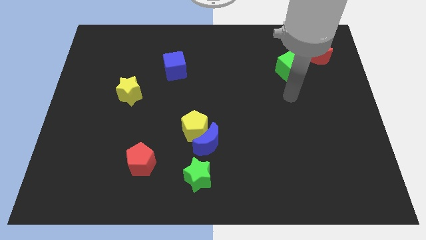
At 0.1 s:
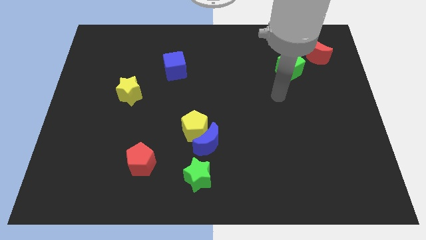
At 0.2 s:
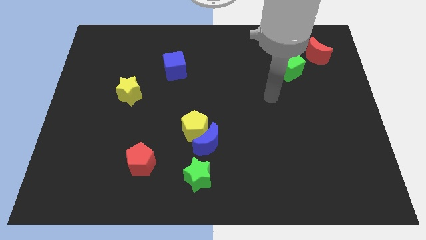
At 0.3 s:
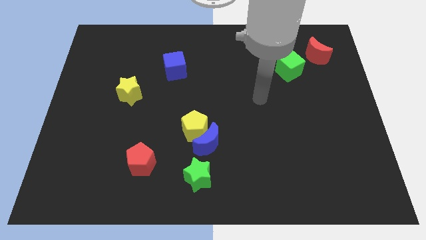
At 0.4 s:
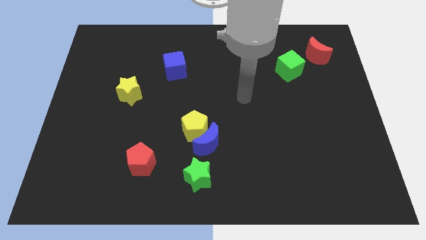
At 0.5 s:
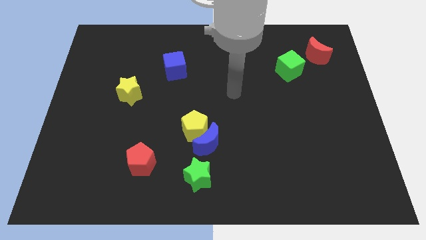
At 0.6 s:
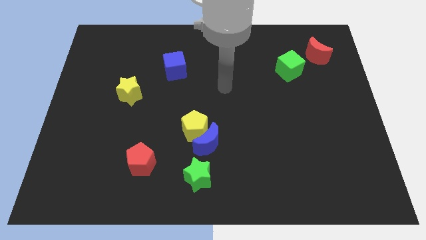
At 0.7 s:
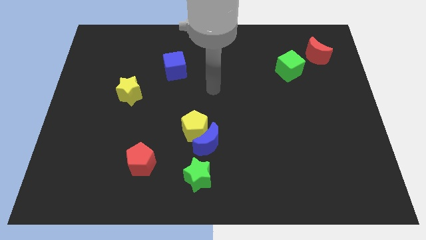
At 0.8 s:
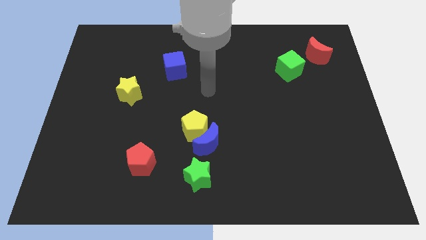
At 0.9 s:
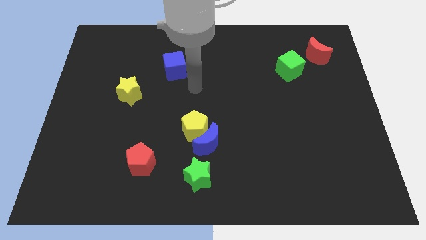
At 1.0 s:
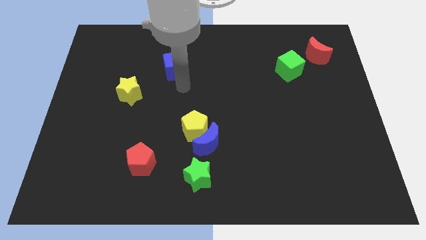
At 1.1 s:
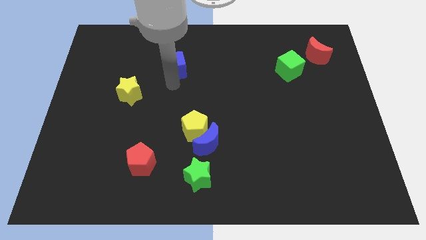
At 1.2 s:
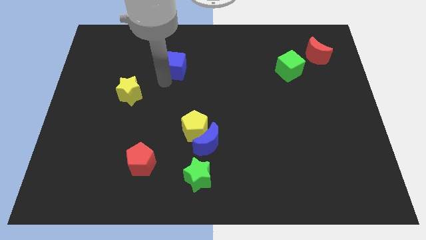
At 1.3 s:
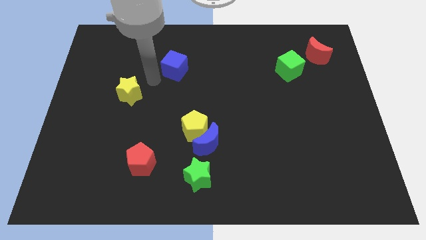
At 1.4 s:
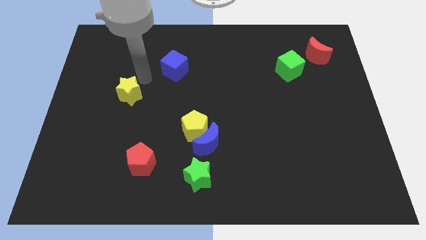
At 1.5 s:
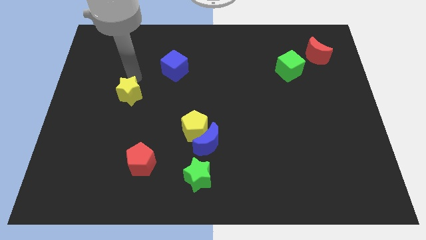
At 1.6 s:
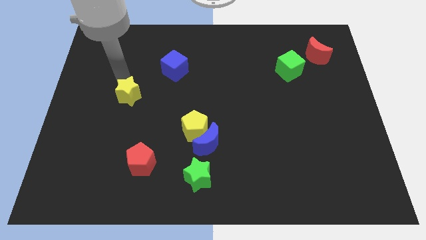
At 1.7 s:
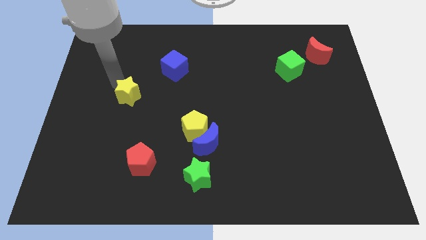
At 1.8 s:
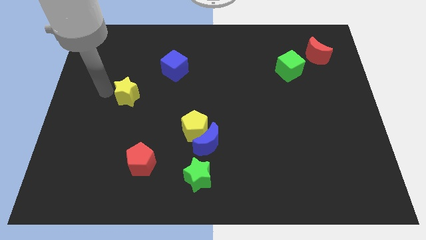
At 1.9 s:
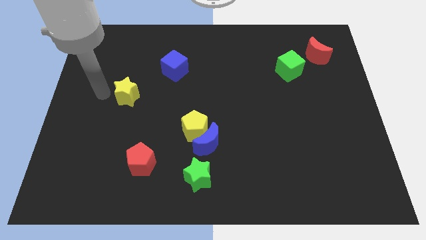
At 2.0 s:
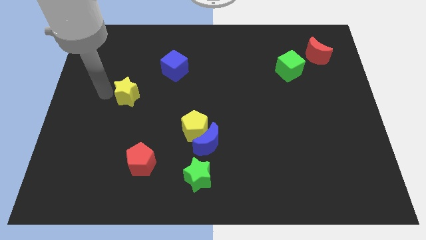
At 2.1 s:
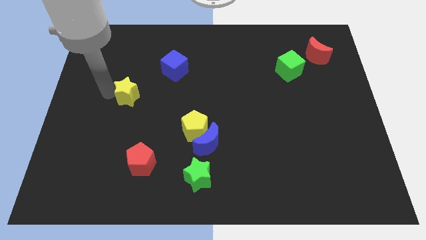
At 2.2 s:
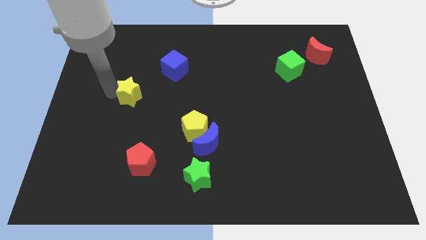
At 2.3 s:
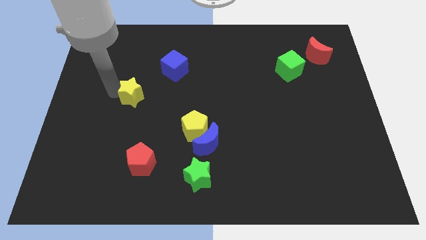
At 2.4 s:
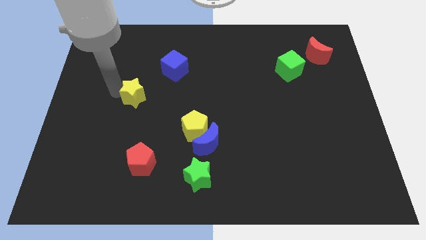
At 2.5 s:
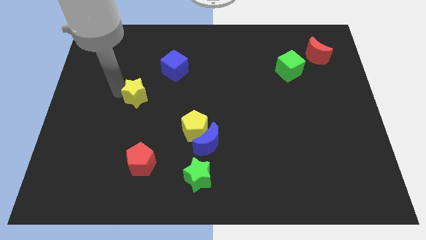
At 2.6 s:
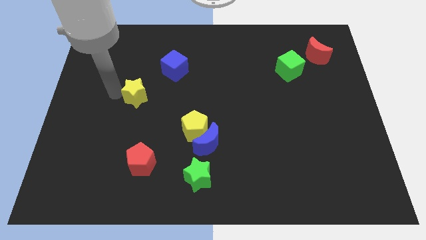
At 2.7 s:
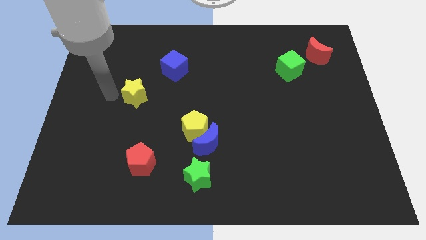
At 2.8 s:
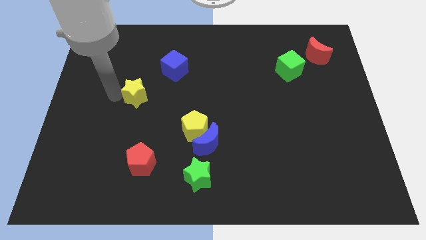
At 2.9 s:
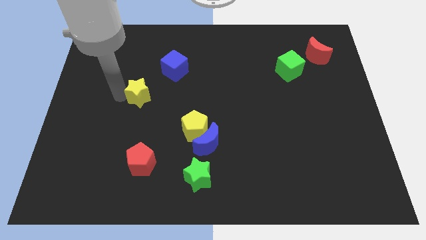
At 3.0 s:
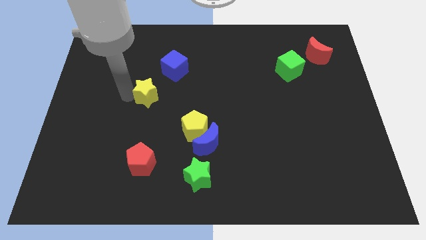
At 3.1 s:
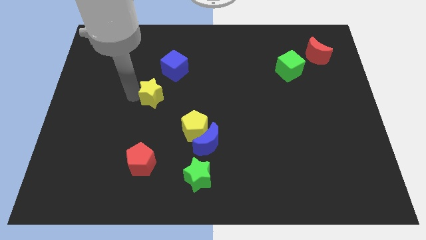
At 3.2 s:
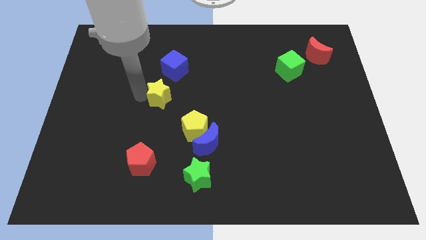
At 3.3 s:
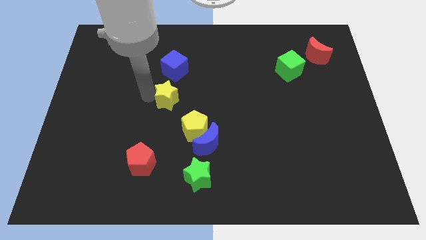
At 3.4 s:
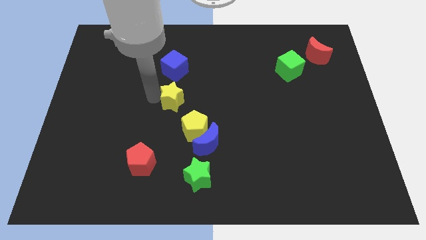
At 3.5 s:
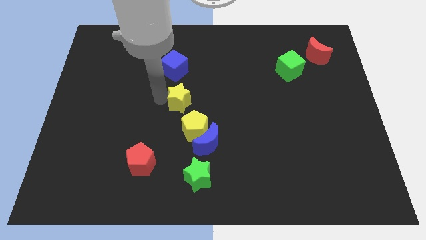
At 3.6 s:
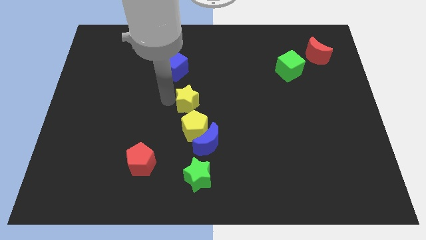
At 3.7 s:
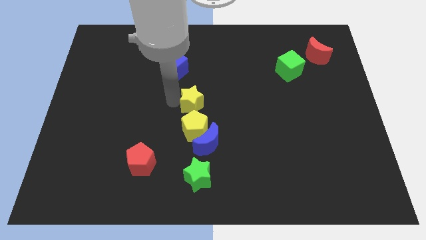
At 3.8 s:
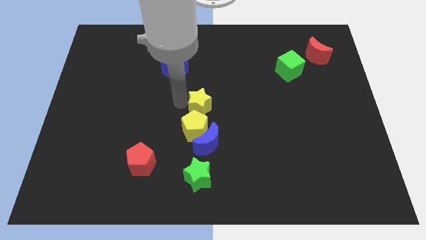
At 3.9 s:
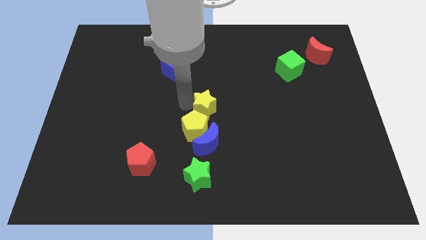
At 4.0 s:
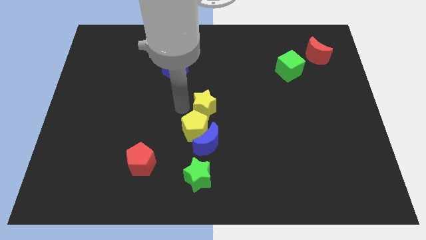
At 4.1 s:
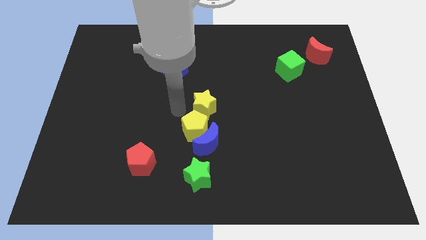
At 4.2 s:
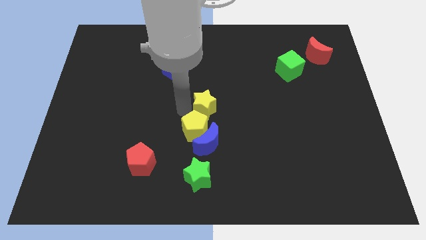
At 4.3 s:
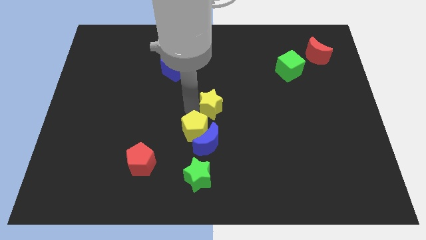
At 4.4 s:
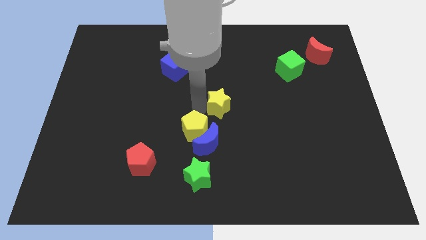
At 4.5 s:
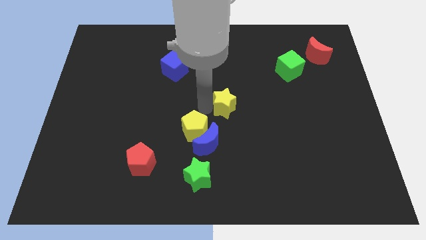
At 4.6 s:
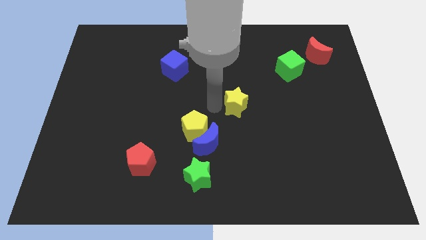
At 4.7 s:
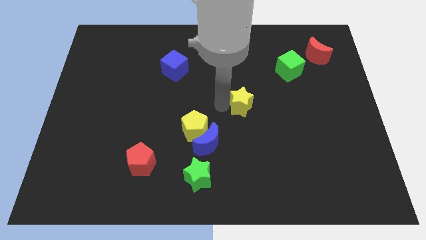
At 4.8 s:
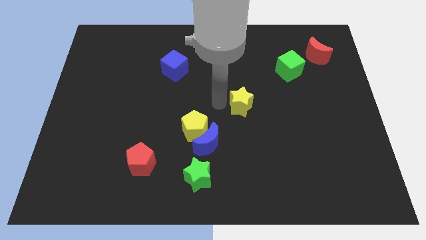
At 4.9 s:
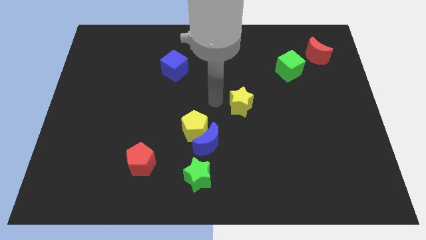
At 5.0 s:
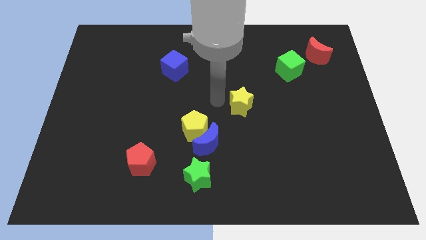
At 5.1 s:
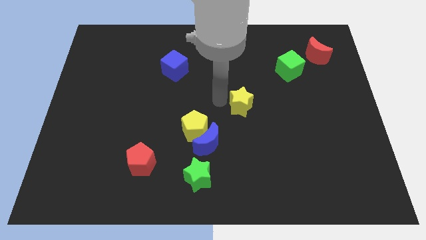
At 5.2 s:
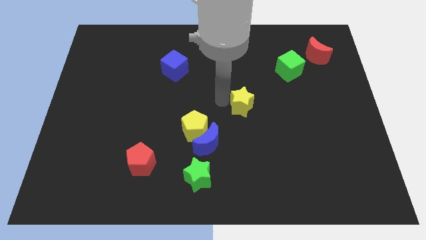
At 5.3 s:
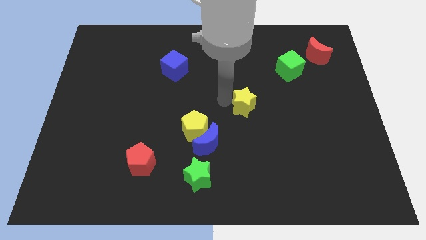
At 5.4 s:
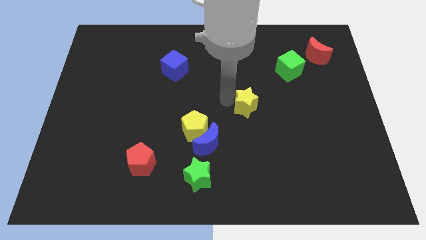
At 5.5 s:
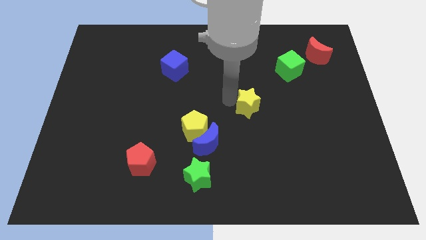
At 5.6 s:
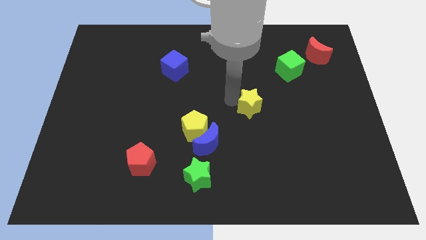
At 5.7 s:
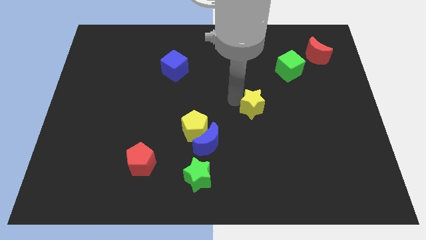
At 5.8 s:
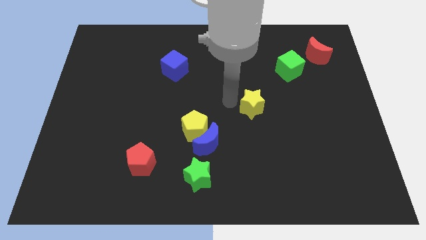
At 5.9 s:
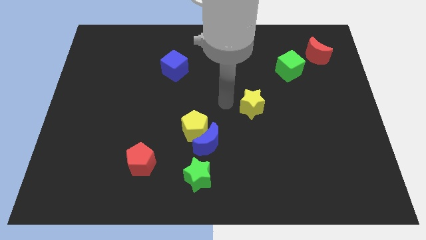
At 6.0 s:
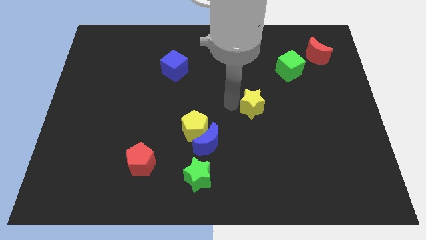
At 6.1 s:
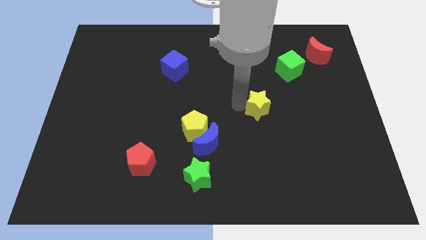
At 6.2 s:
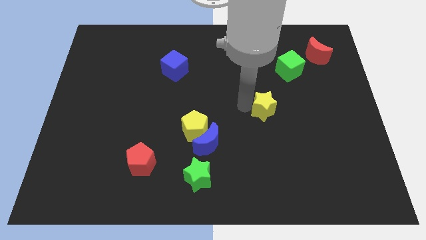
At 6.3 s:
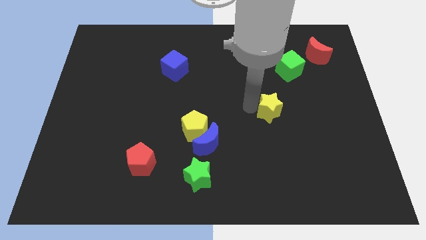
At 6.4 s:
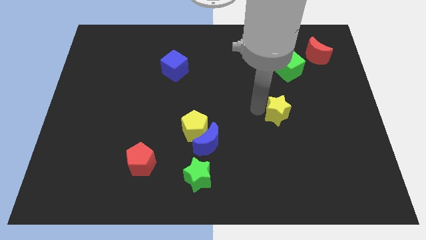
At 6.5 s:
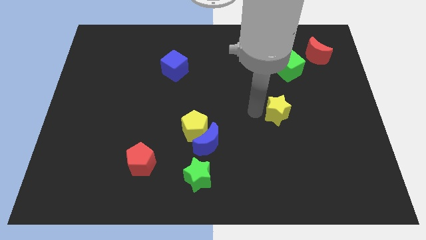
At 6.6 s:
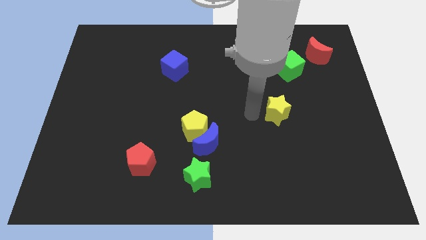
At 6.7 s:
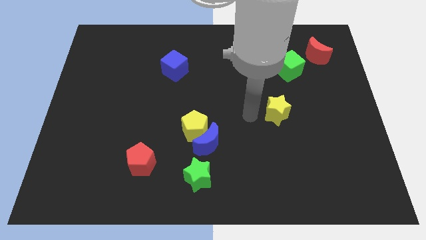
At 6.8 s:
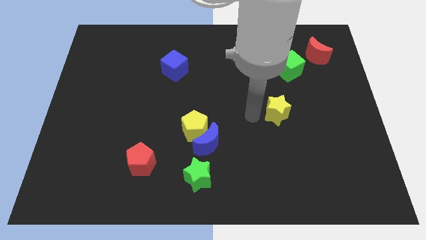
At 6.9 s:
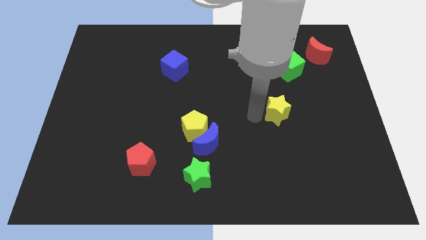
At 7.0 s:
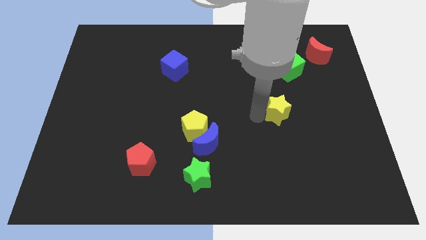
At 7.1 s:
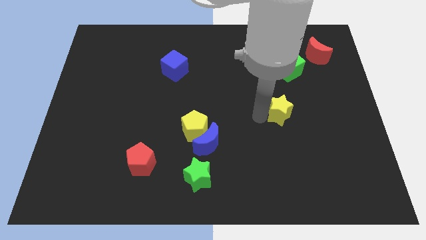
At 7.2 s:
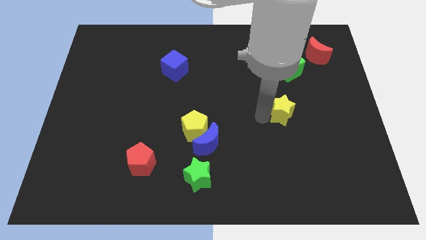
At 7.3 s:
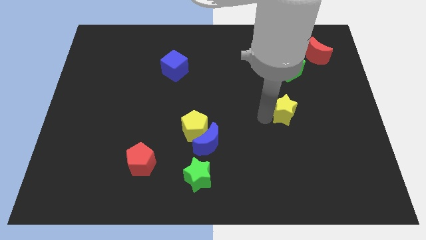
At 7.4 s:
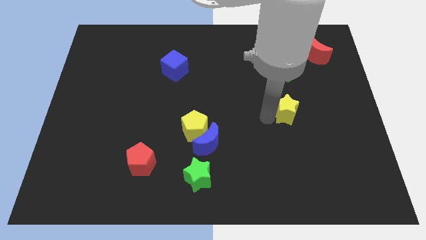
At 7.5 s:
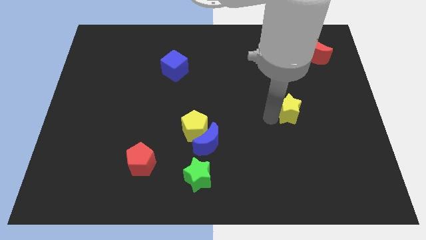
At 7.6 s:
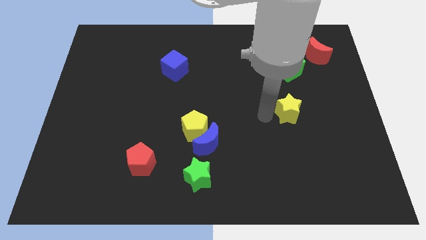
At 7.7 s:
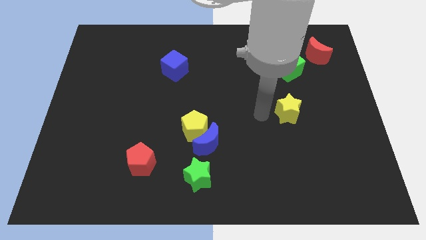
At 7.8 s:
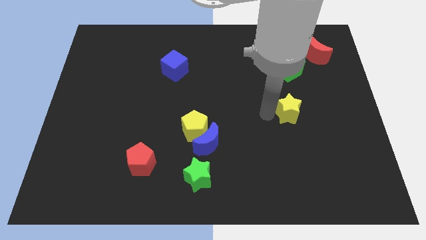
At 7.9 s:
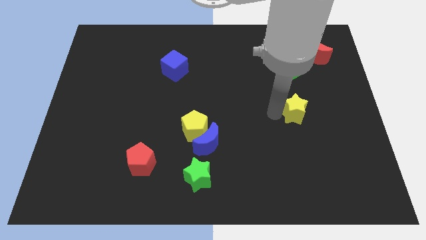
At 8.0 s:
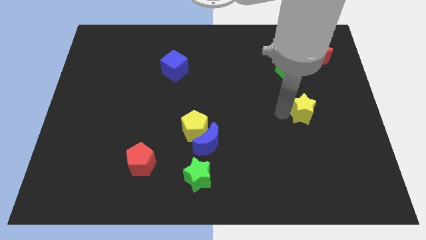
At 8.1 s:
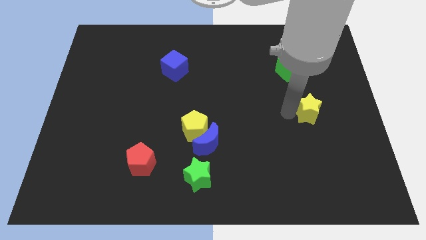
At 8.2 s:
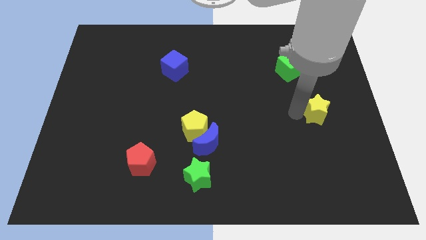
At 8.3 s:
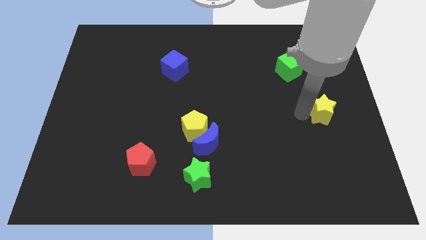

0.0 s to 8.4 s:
push the yellow star to the right side of the board
